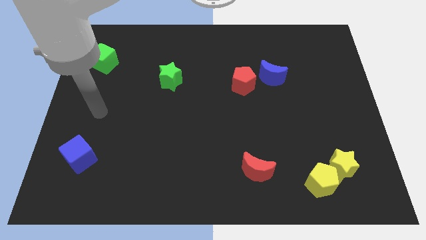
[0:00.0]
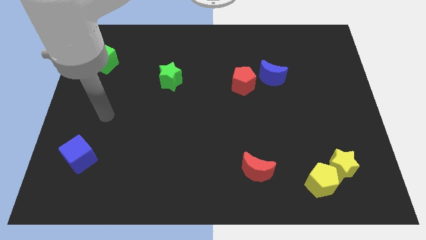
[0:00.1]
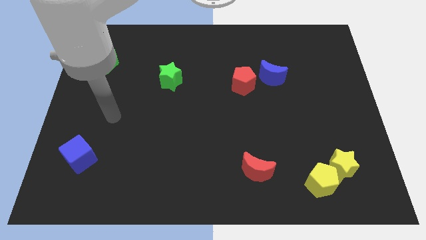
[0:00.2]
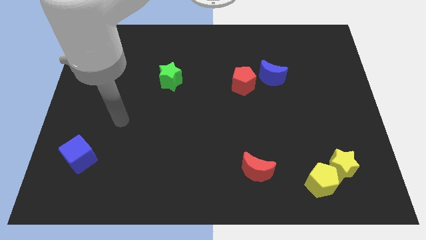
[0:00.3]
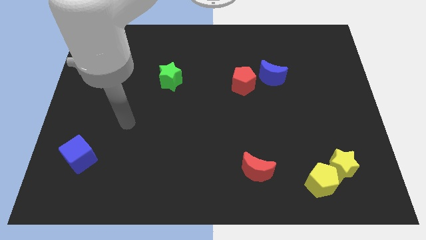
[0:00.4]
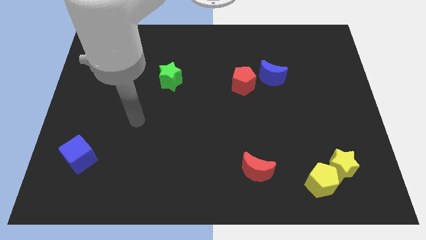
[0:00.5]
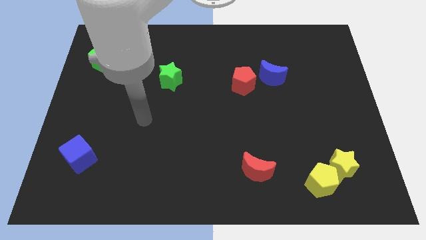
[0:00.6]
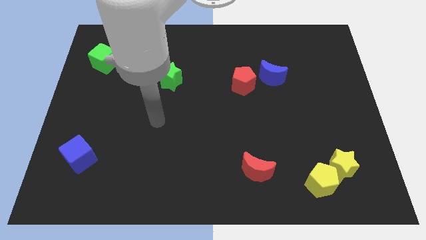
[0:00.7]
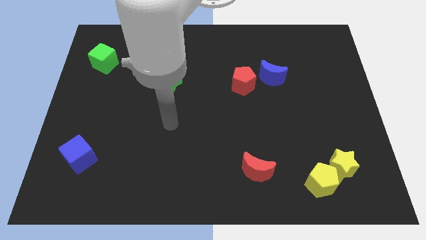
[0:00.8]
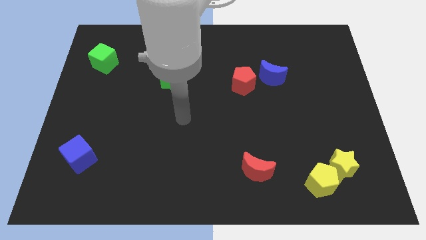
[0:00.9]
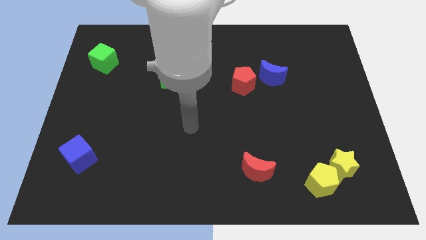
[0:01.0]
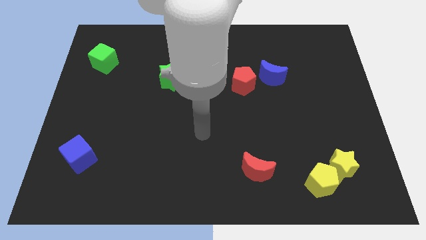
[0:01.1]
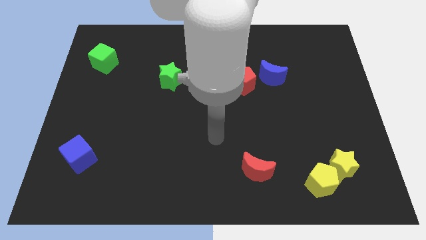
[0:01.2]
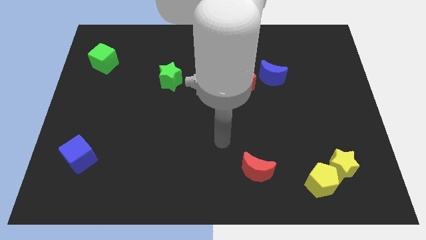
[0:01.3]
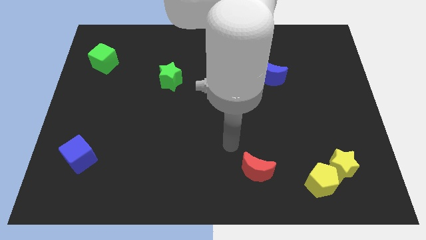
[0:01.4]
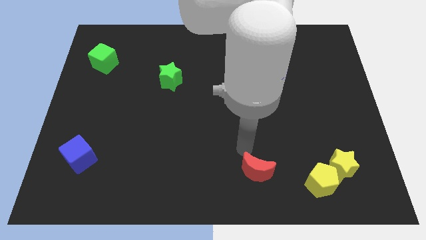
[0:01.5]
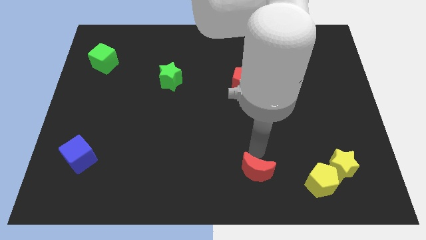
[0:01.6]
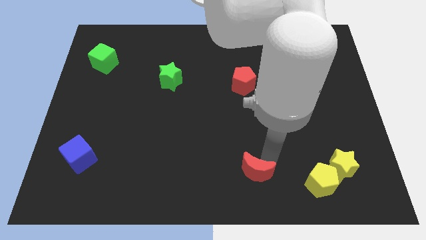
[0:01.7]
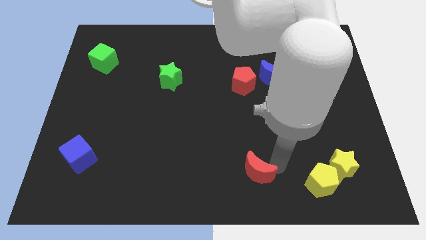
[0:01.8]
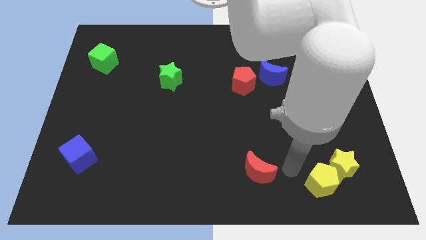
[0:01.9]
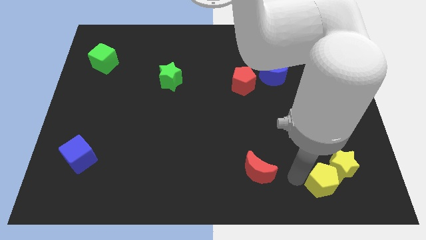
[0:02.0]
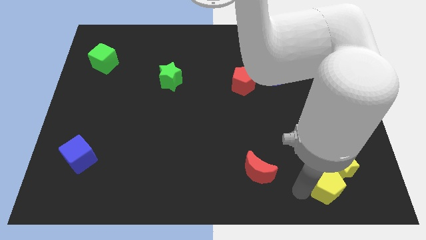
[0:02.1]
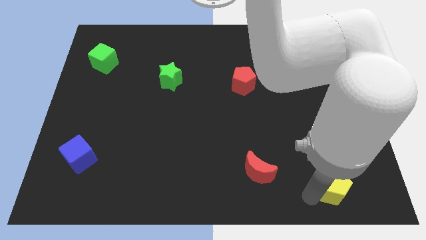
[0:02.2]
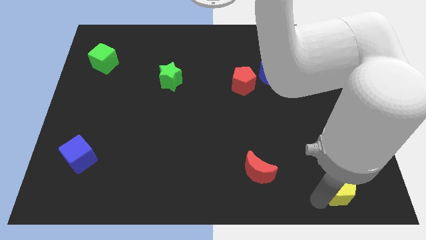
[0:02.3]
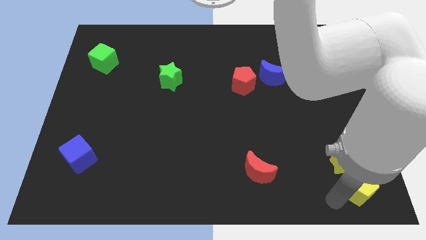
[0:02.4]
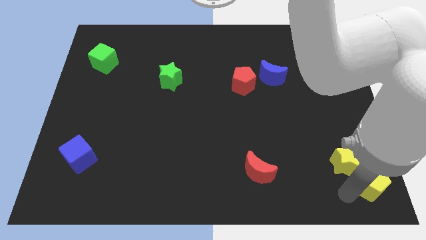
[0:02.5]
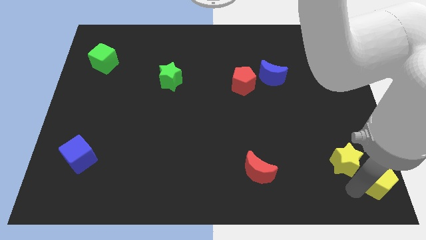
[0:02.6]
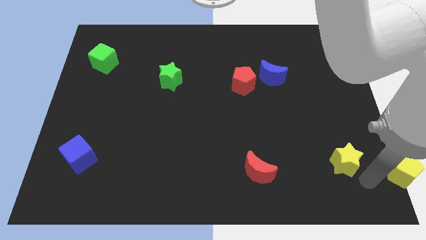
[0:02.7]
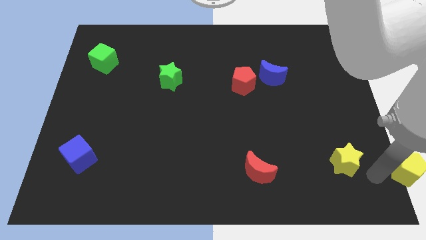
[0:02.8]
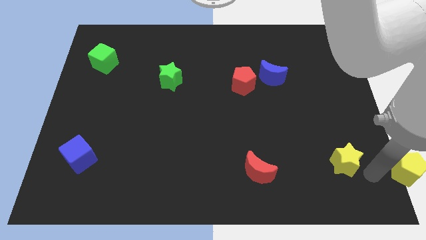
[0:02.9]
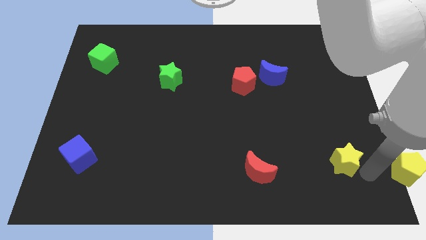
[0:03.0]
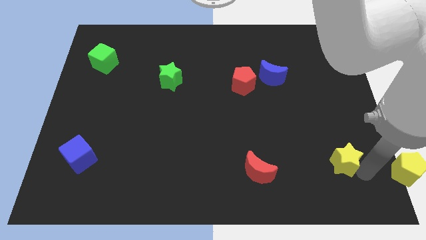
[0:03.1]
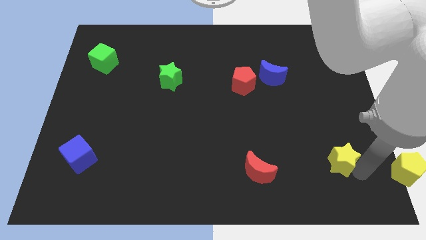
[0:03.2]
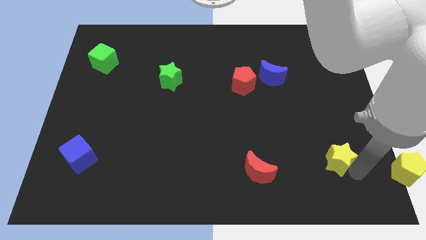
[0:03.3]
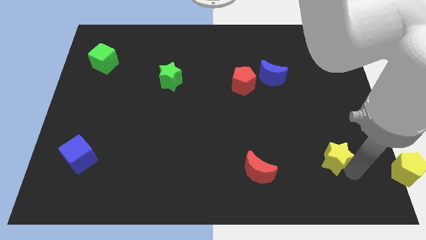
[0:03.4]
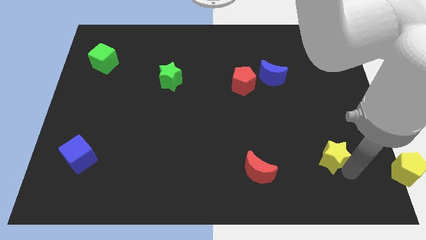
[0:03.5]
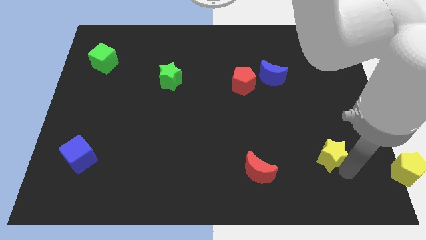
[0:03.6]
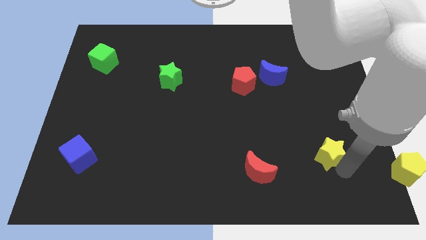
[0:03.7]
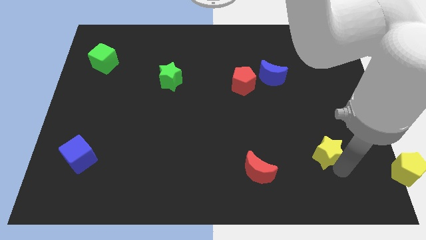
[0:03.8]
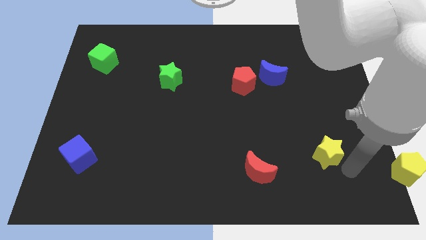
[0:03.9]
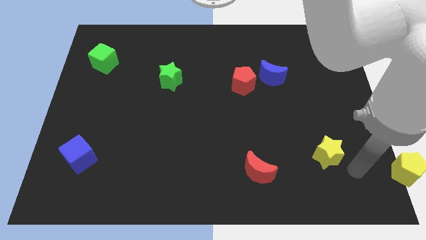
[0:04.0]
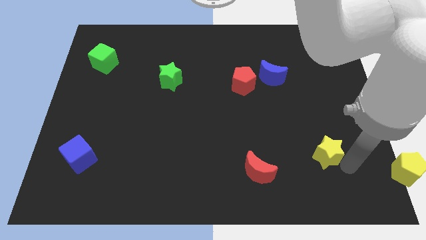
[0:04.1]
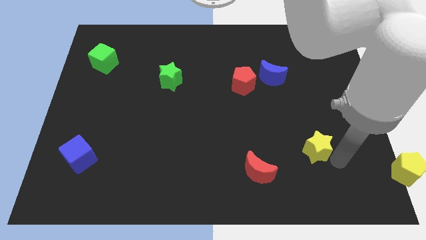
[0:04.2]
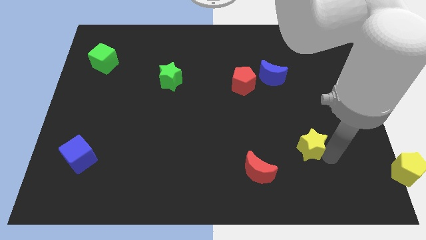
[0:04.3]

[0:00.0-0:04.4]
slightly move the yellow star up and to the left diagonally

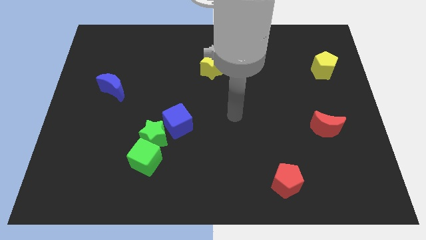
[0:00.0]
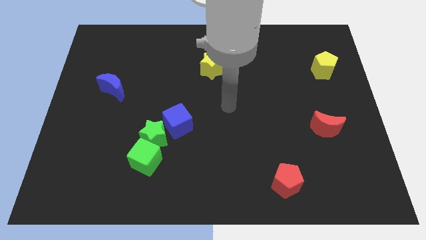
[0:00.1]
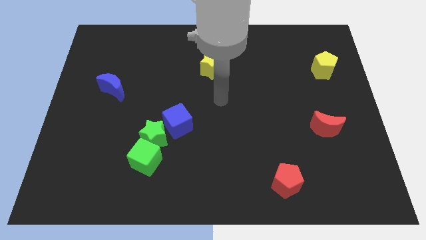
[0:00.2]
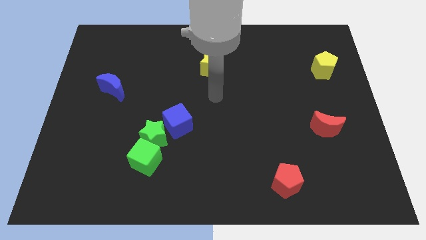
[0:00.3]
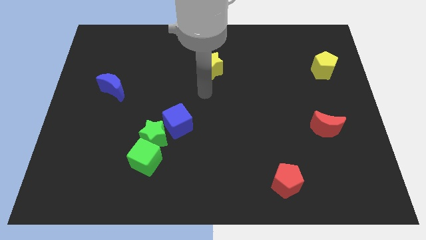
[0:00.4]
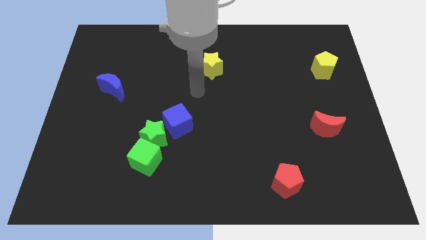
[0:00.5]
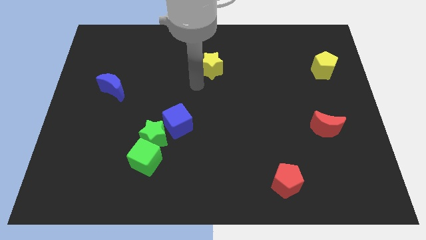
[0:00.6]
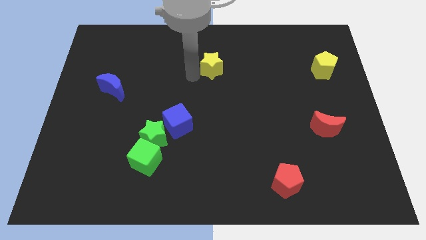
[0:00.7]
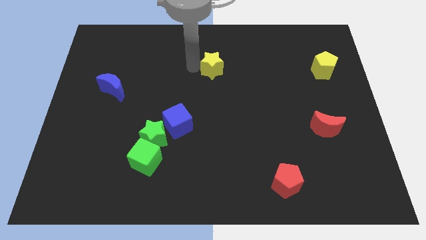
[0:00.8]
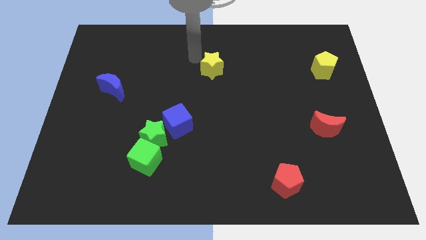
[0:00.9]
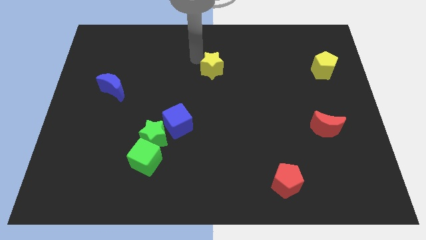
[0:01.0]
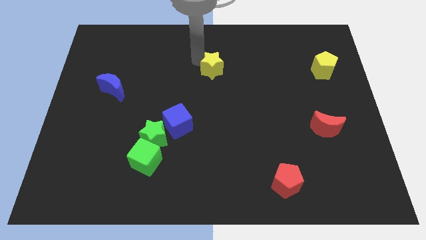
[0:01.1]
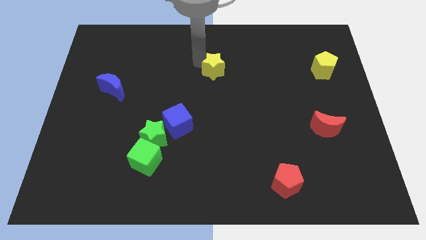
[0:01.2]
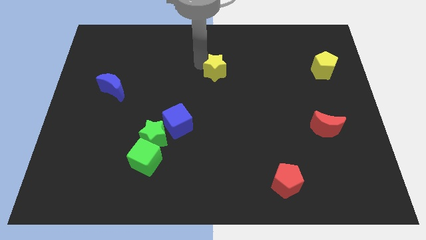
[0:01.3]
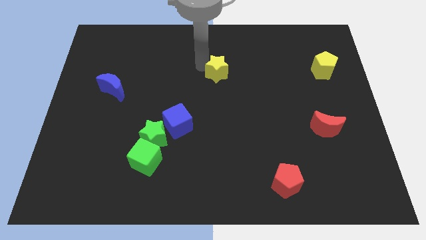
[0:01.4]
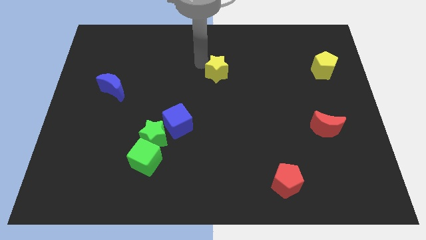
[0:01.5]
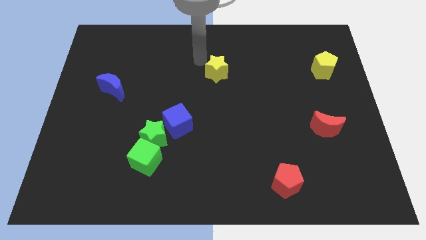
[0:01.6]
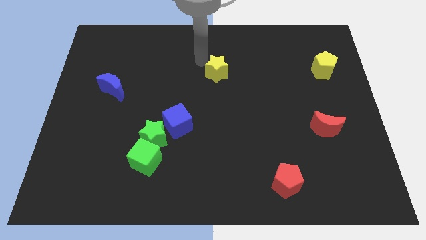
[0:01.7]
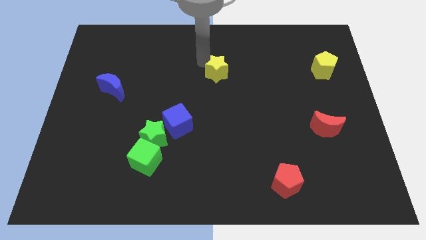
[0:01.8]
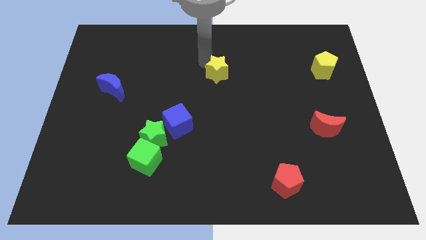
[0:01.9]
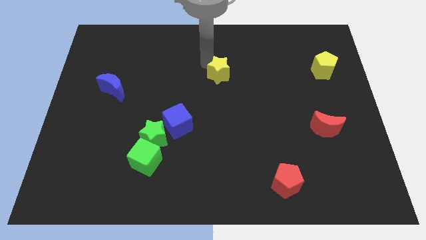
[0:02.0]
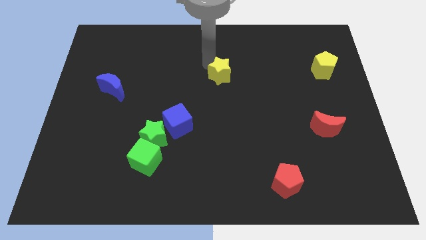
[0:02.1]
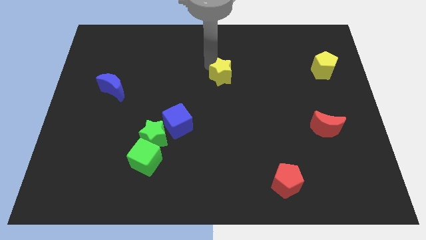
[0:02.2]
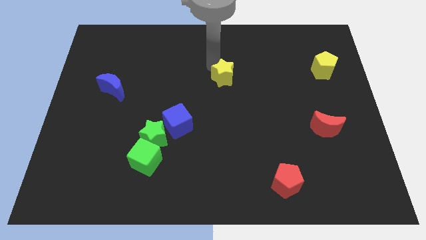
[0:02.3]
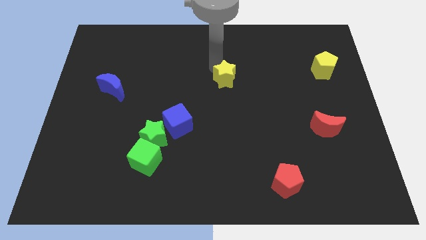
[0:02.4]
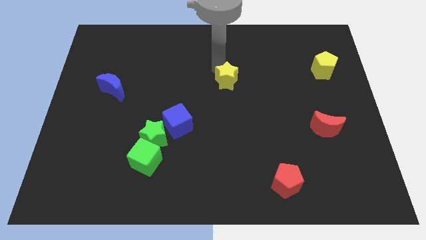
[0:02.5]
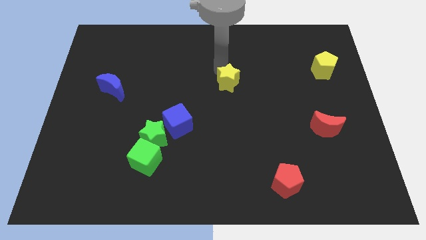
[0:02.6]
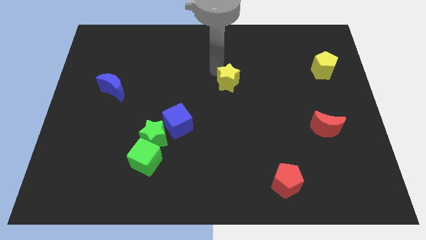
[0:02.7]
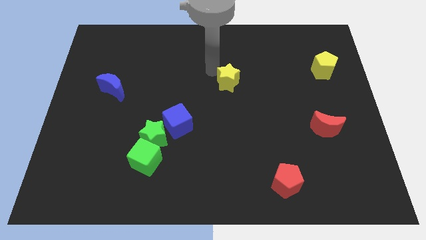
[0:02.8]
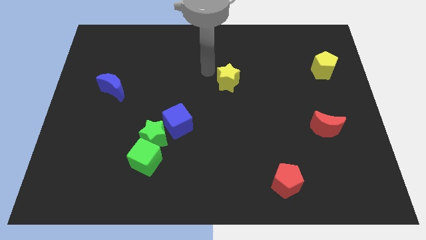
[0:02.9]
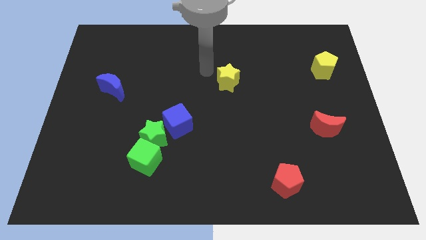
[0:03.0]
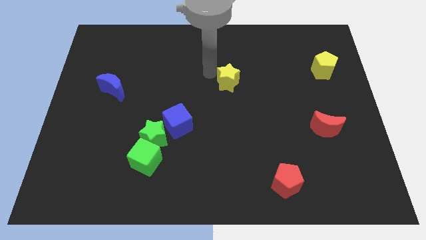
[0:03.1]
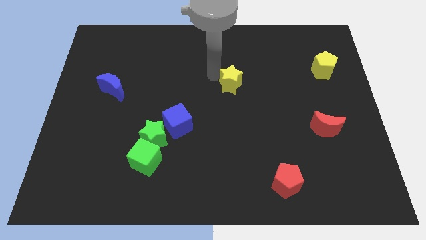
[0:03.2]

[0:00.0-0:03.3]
push the yellow star downwards and right somewhat

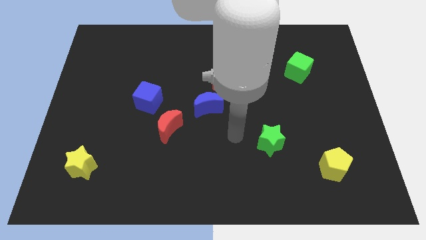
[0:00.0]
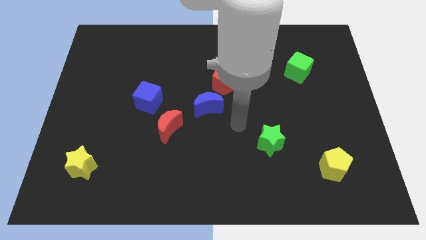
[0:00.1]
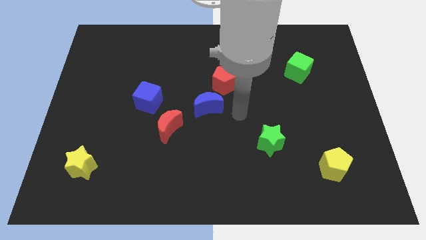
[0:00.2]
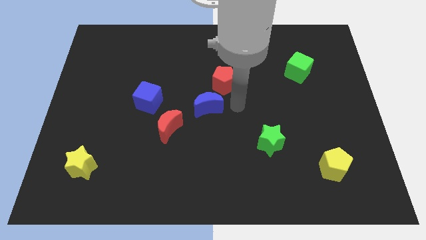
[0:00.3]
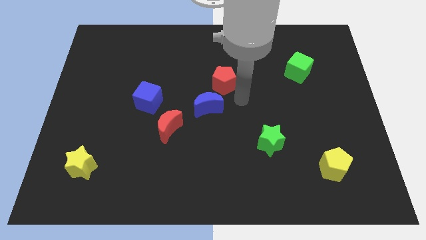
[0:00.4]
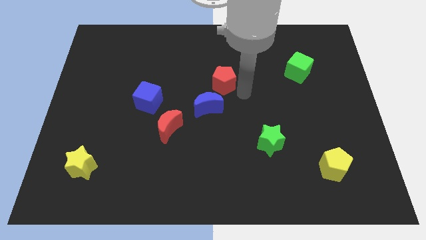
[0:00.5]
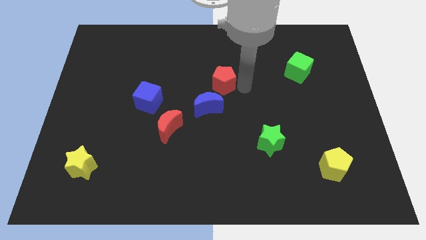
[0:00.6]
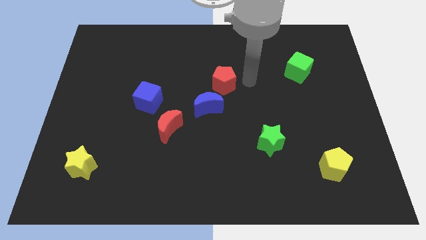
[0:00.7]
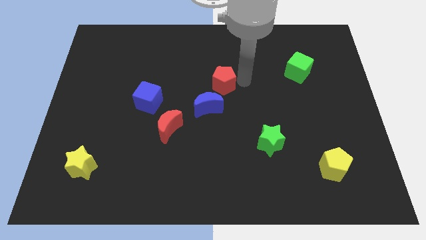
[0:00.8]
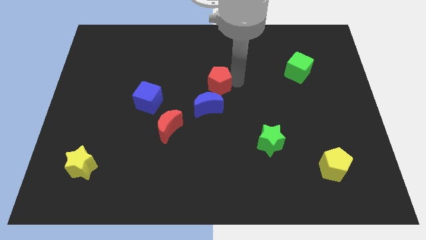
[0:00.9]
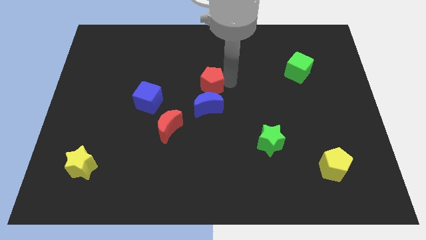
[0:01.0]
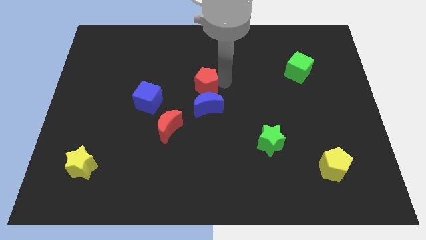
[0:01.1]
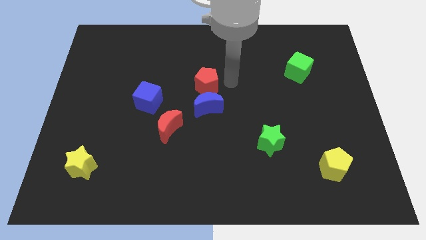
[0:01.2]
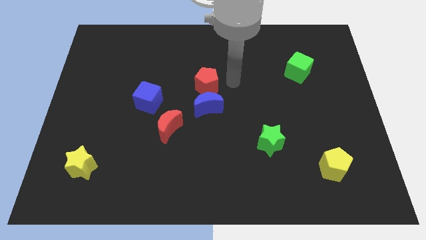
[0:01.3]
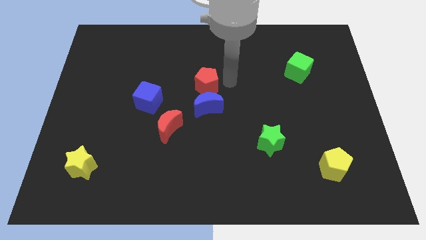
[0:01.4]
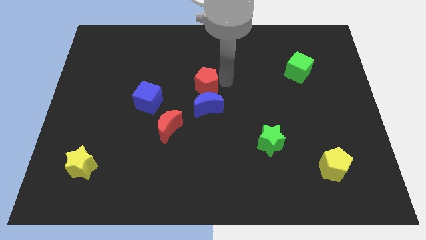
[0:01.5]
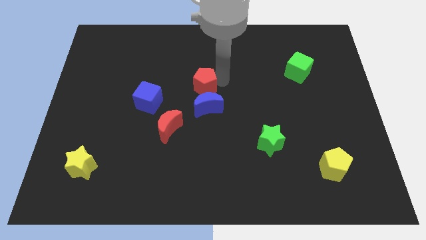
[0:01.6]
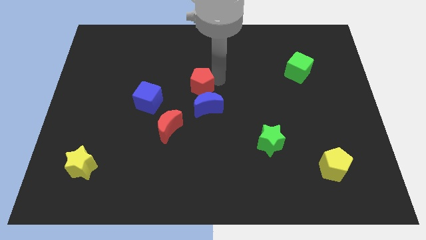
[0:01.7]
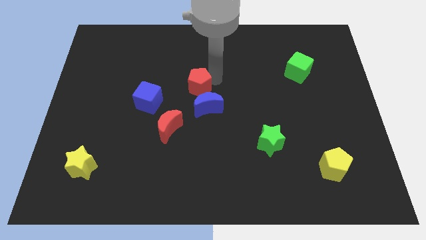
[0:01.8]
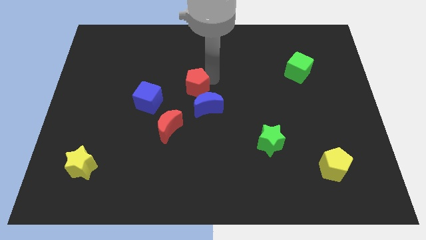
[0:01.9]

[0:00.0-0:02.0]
move the red pentagon to the left a little bit
